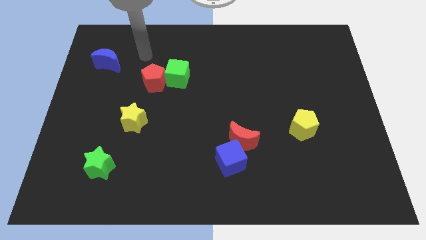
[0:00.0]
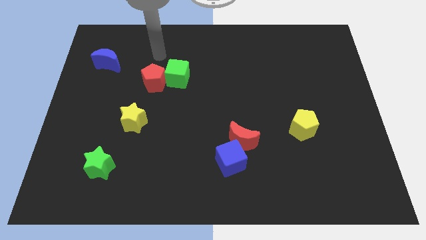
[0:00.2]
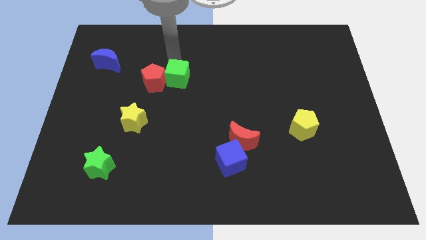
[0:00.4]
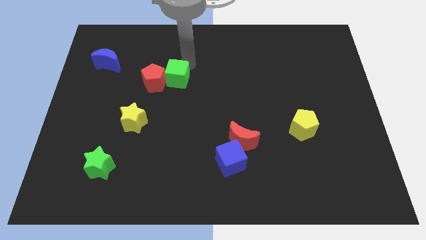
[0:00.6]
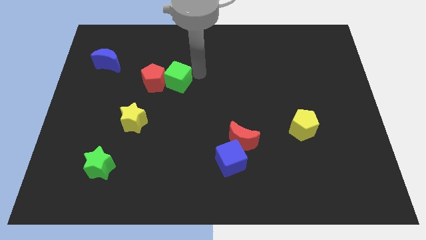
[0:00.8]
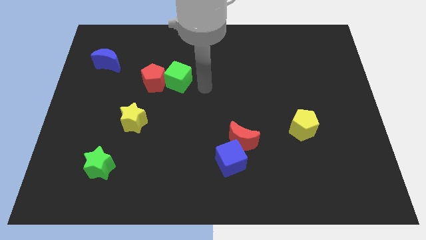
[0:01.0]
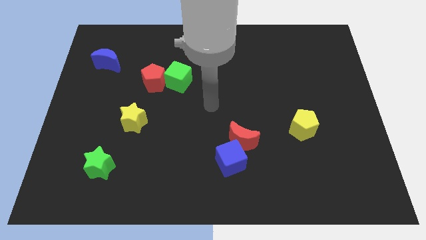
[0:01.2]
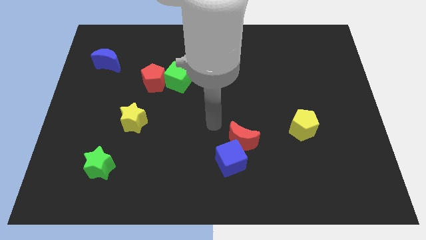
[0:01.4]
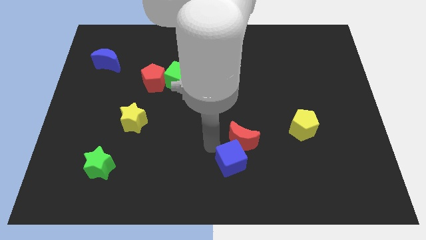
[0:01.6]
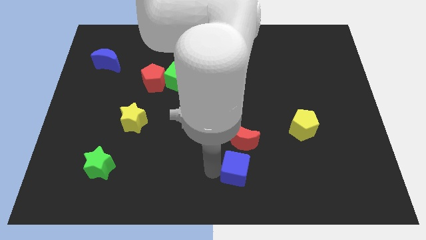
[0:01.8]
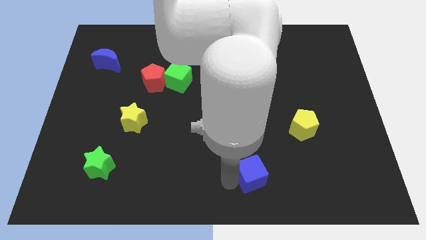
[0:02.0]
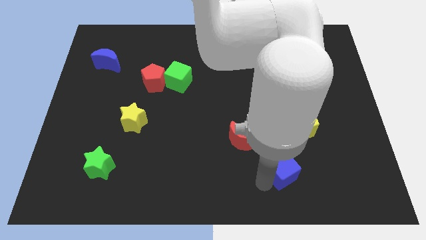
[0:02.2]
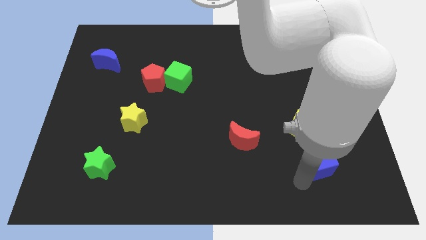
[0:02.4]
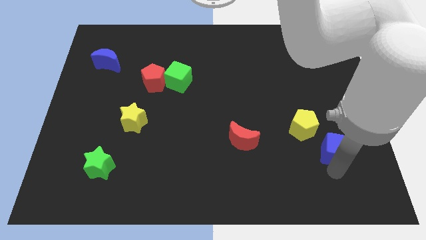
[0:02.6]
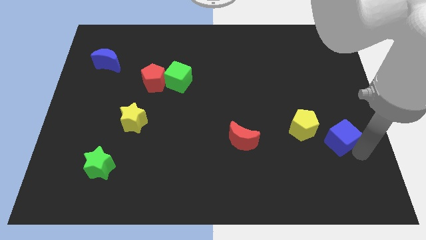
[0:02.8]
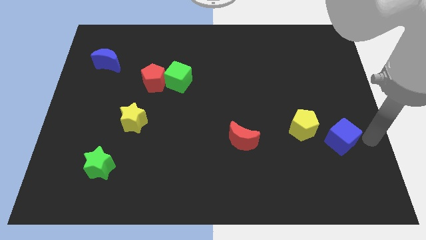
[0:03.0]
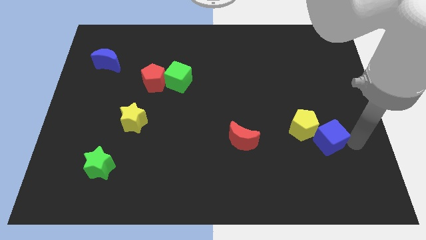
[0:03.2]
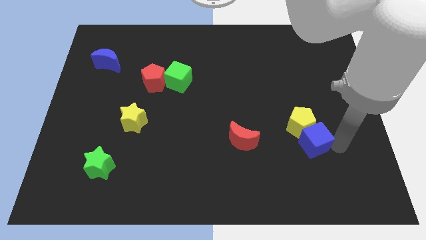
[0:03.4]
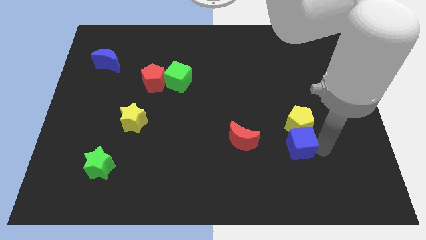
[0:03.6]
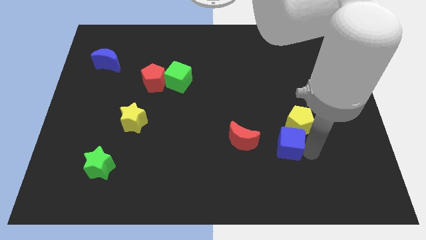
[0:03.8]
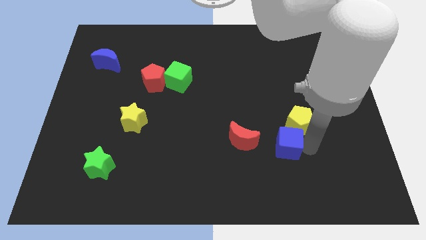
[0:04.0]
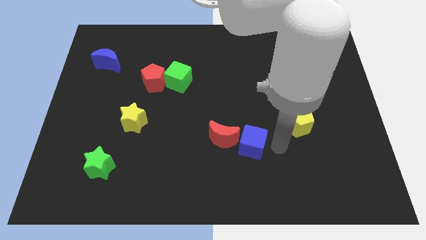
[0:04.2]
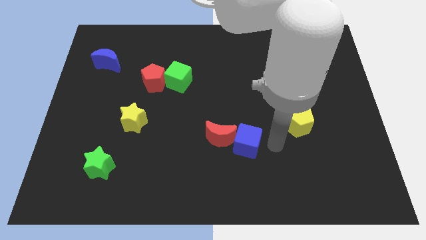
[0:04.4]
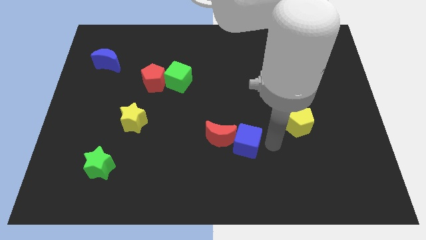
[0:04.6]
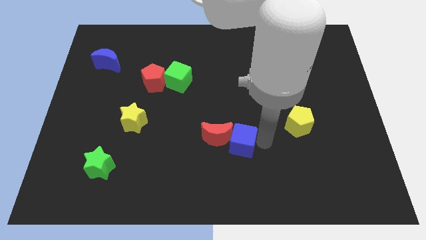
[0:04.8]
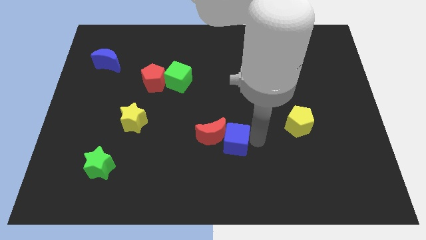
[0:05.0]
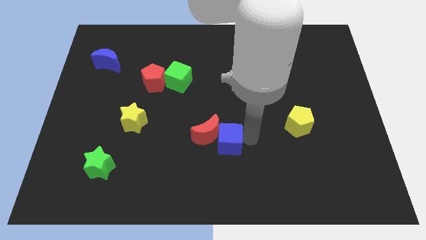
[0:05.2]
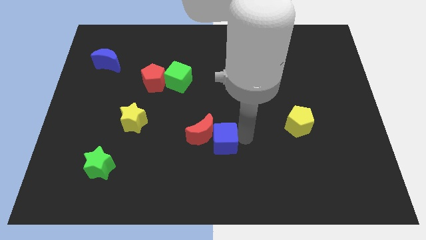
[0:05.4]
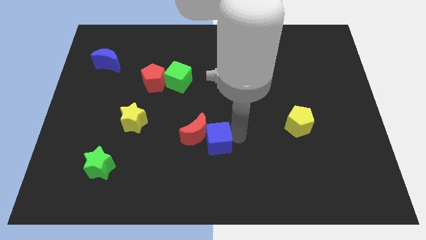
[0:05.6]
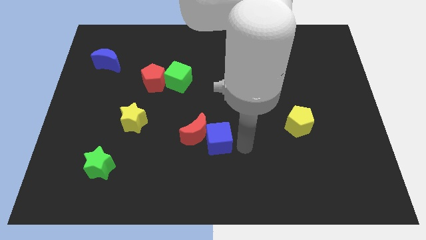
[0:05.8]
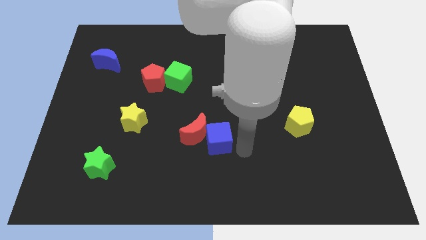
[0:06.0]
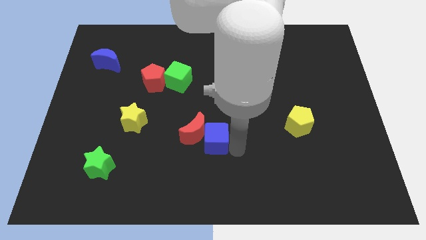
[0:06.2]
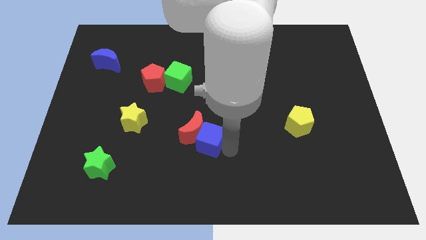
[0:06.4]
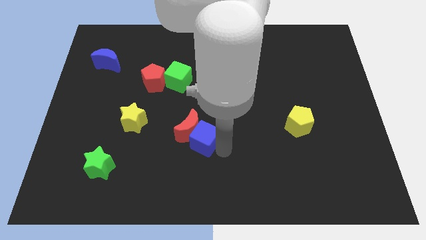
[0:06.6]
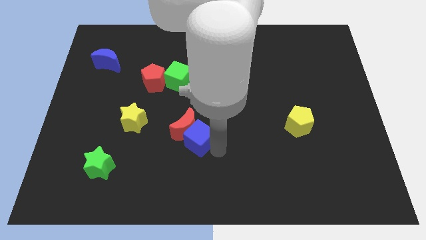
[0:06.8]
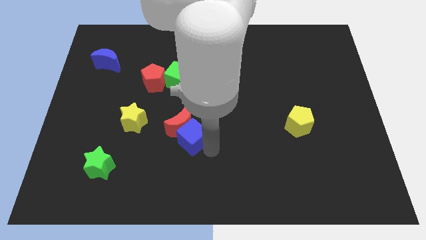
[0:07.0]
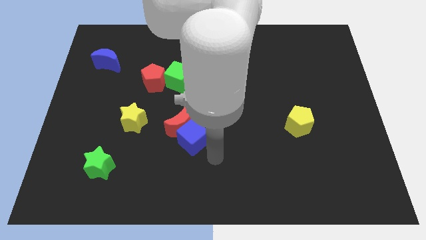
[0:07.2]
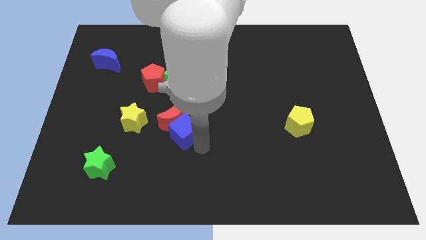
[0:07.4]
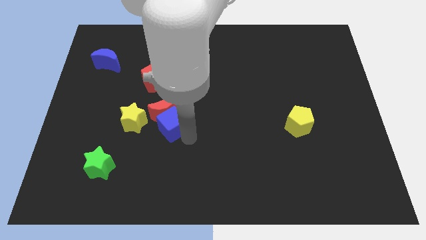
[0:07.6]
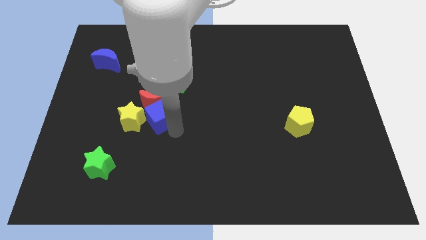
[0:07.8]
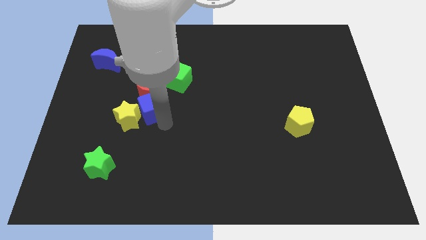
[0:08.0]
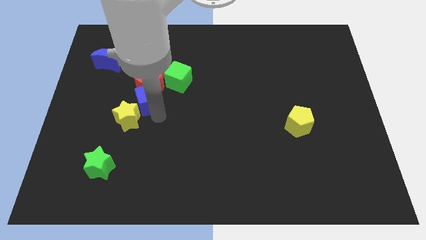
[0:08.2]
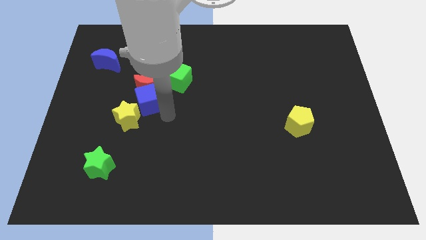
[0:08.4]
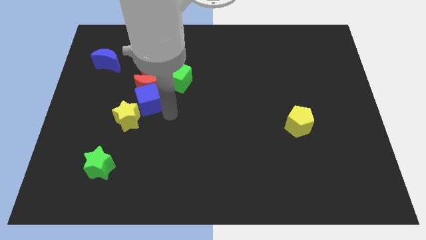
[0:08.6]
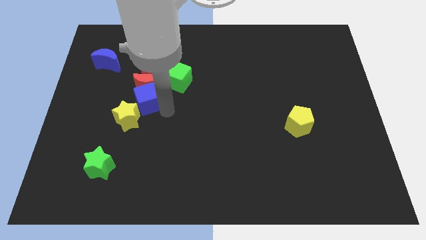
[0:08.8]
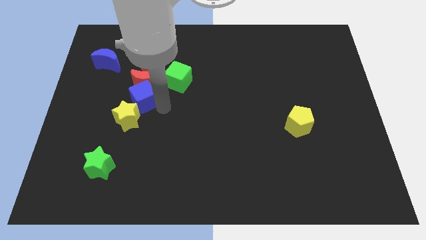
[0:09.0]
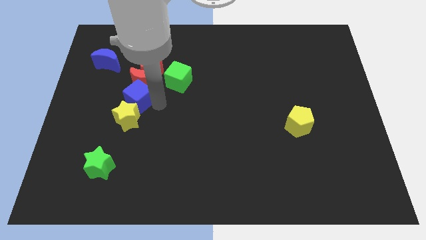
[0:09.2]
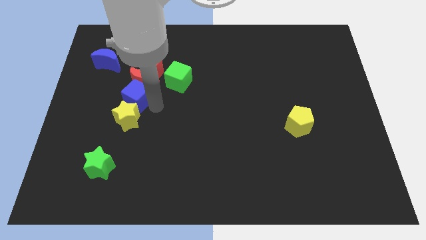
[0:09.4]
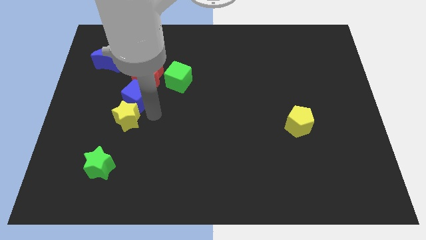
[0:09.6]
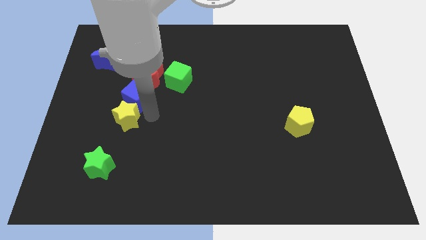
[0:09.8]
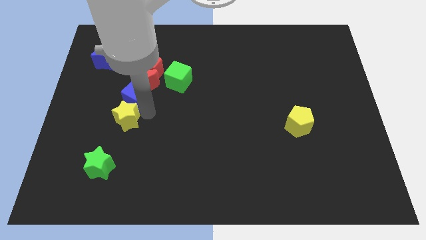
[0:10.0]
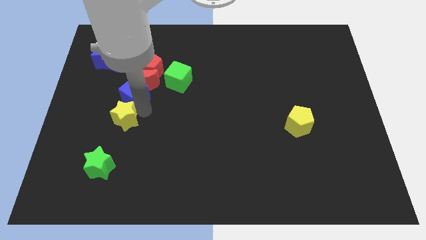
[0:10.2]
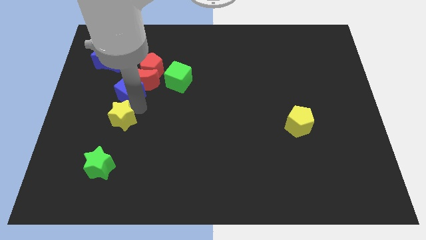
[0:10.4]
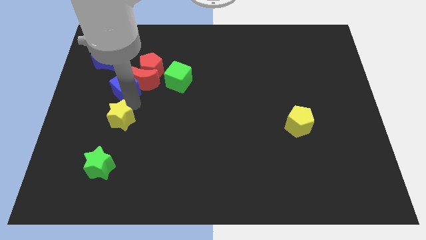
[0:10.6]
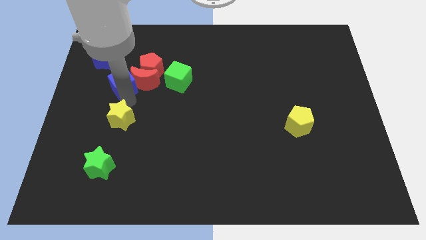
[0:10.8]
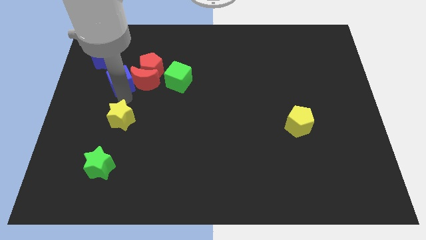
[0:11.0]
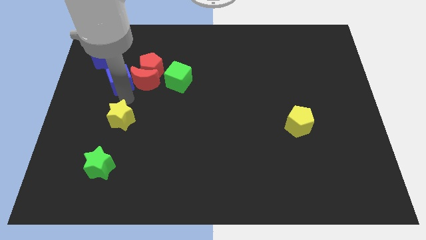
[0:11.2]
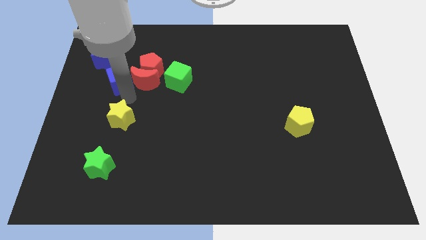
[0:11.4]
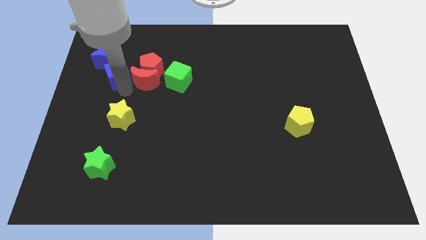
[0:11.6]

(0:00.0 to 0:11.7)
push the blue cube towards the blue moon

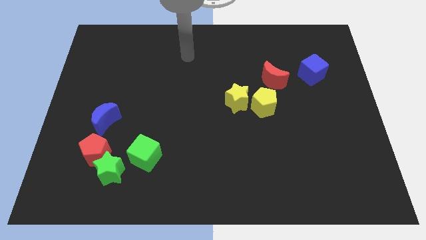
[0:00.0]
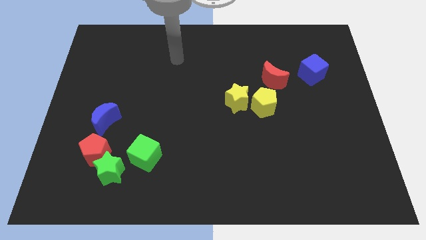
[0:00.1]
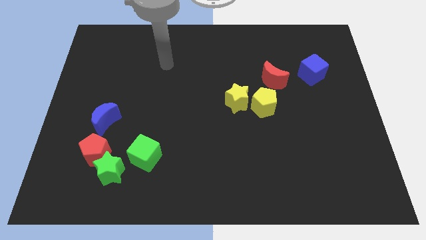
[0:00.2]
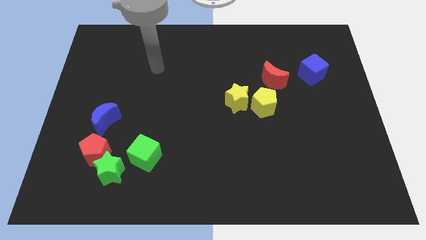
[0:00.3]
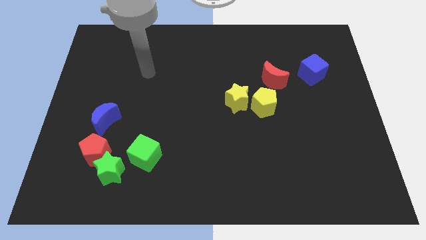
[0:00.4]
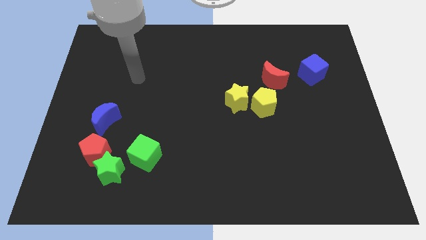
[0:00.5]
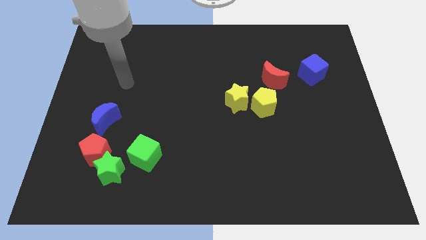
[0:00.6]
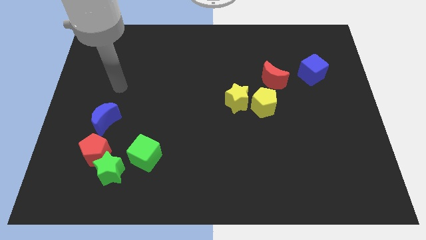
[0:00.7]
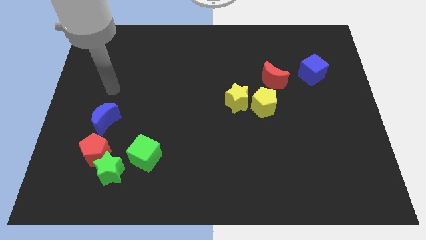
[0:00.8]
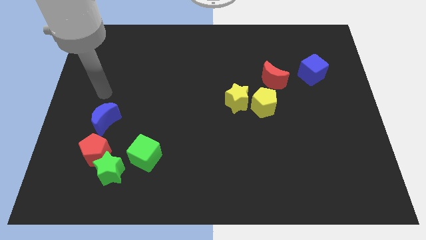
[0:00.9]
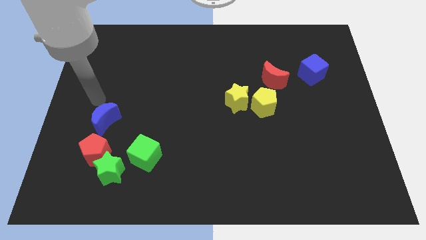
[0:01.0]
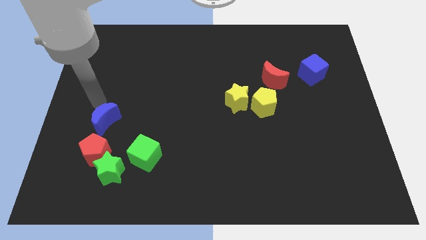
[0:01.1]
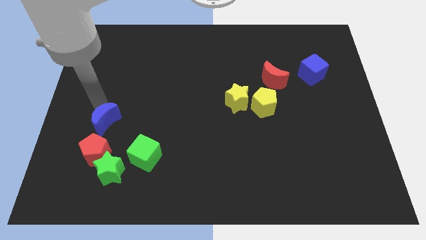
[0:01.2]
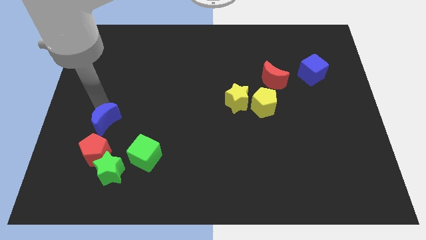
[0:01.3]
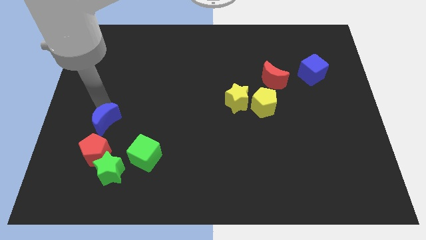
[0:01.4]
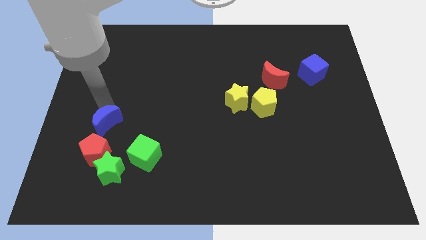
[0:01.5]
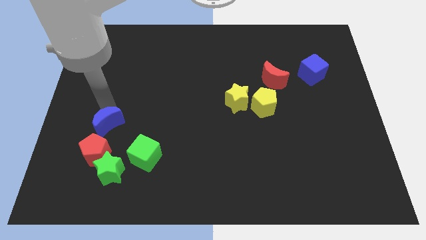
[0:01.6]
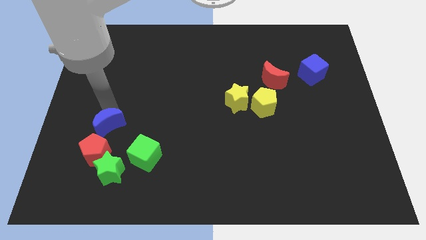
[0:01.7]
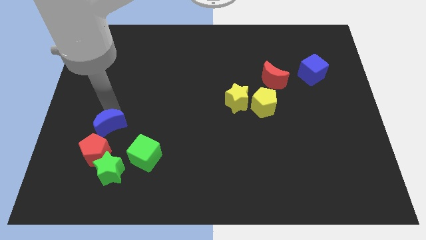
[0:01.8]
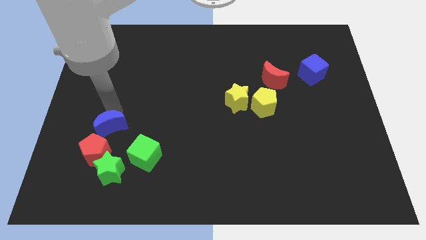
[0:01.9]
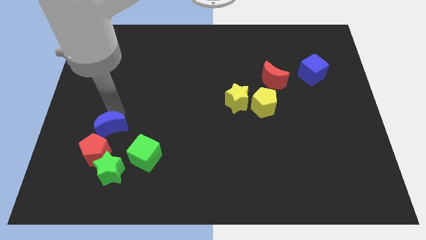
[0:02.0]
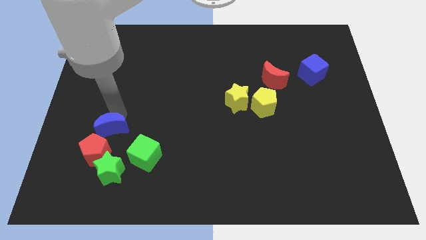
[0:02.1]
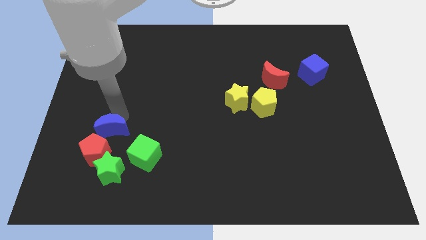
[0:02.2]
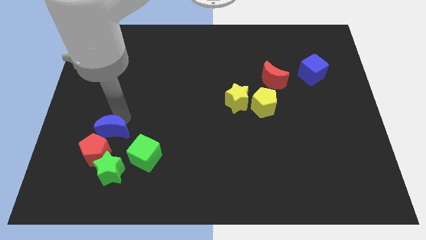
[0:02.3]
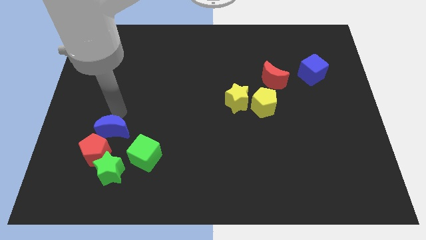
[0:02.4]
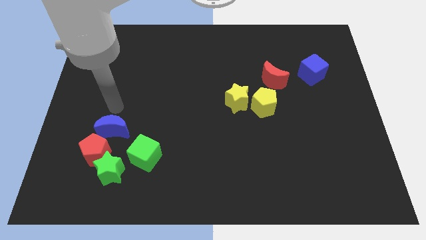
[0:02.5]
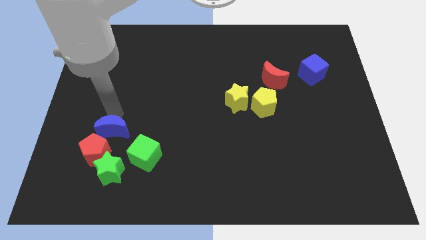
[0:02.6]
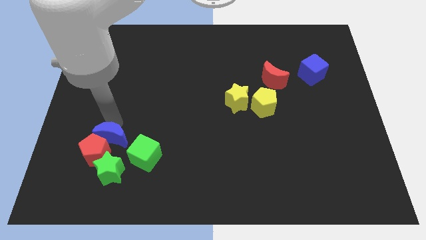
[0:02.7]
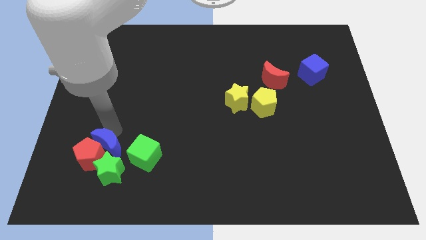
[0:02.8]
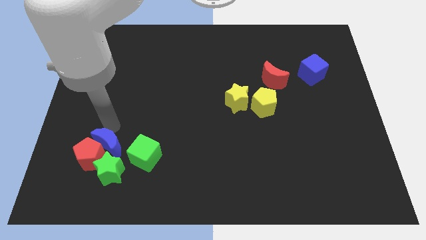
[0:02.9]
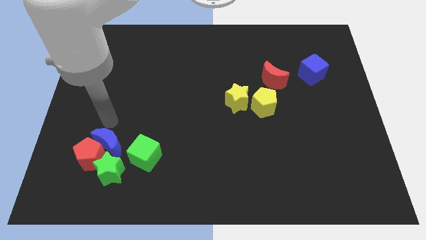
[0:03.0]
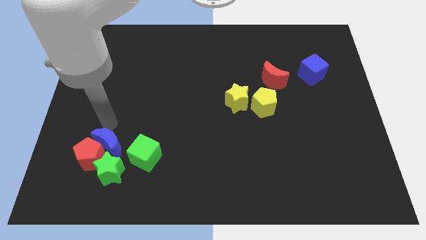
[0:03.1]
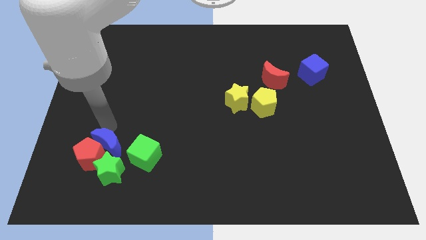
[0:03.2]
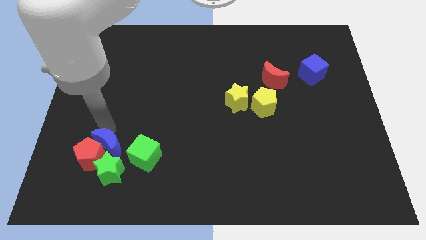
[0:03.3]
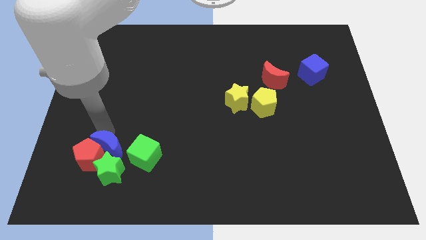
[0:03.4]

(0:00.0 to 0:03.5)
move the blue moon towards the green star
